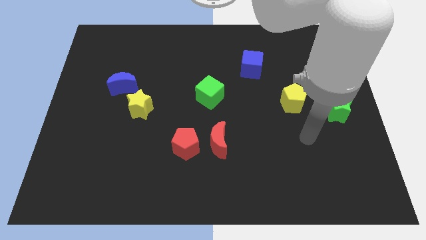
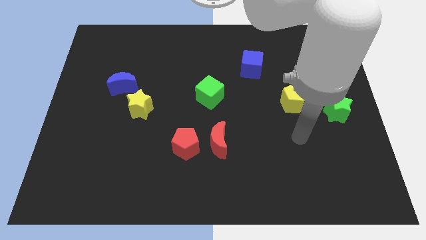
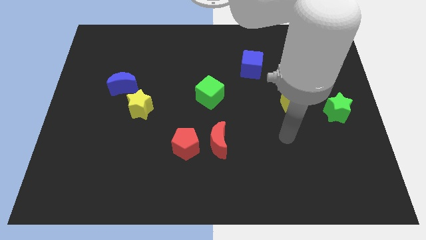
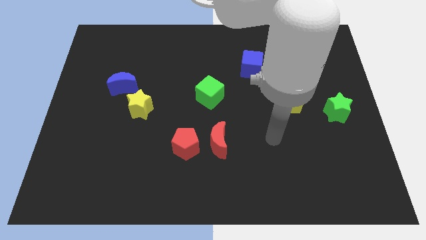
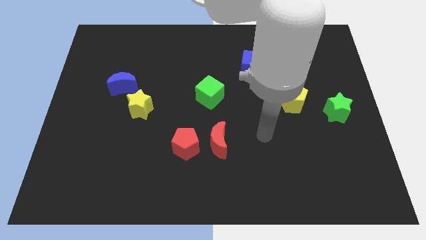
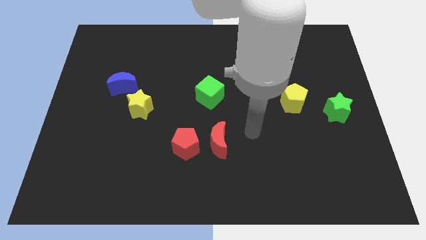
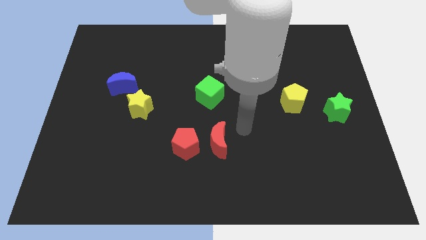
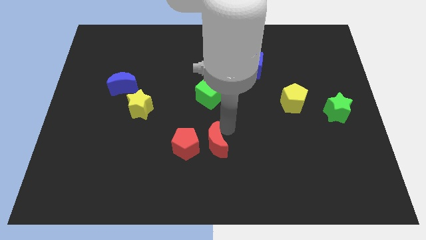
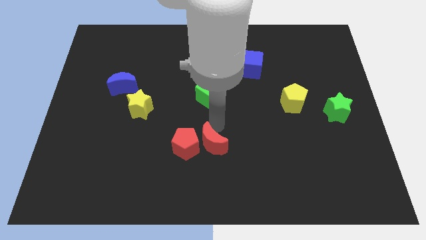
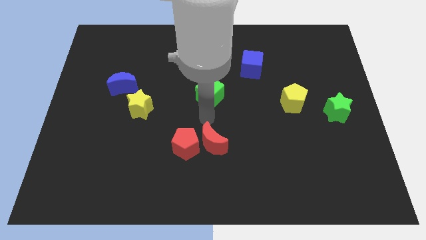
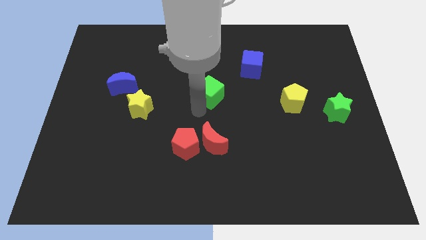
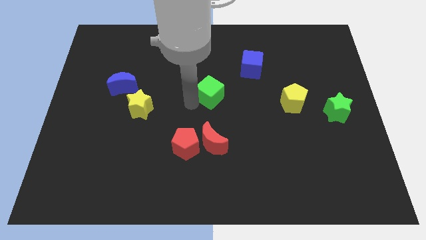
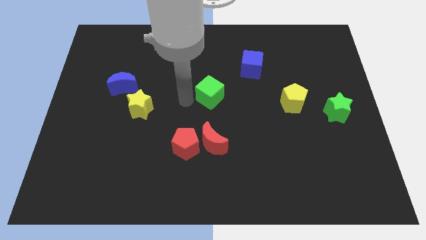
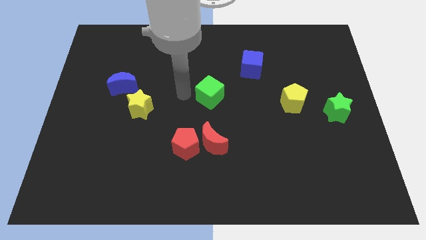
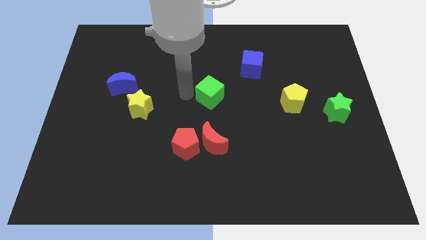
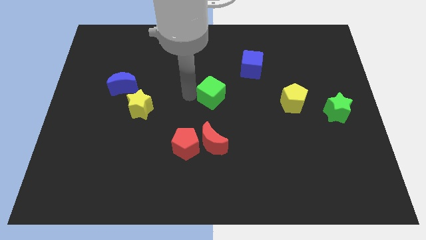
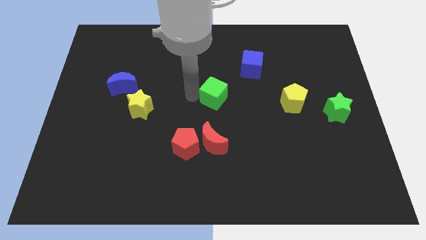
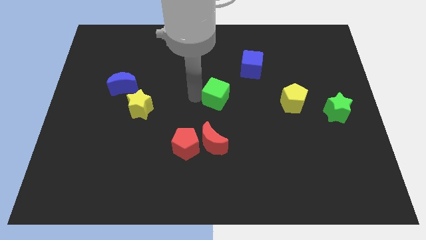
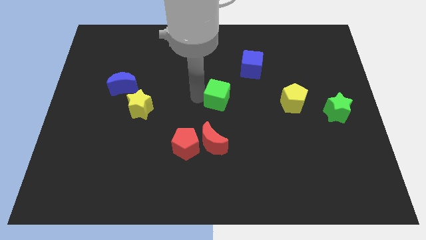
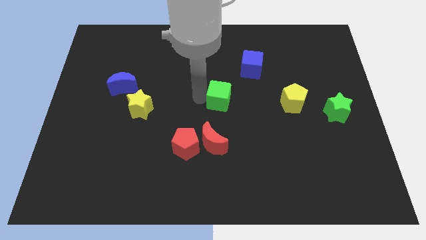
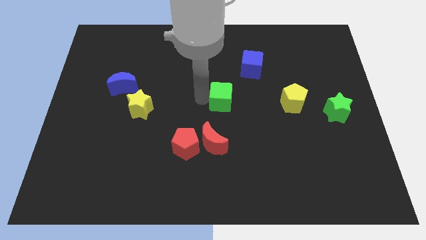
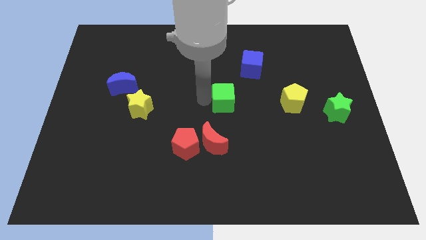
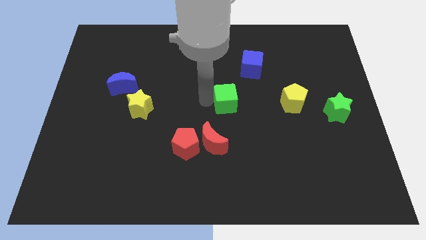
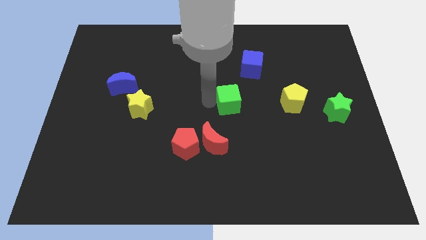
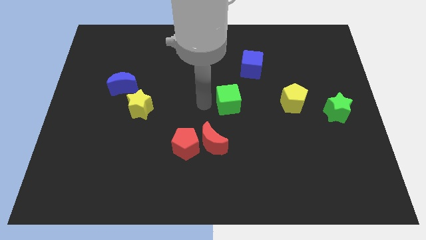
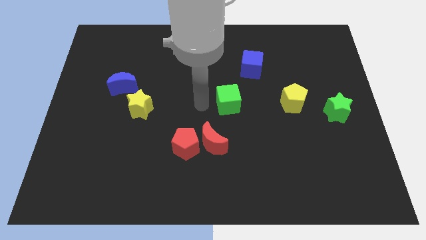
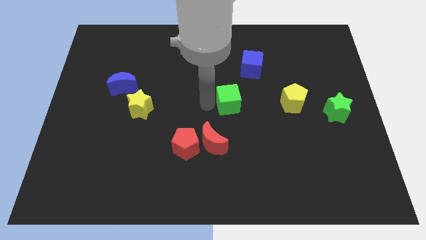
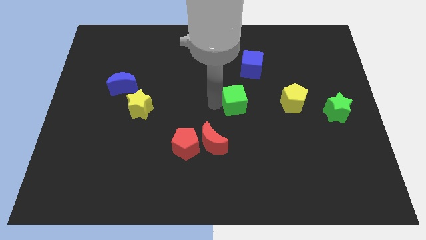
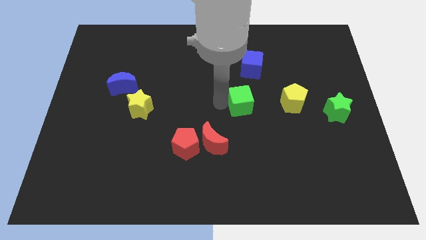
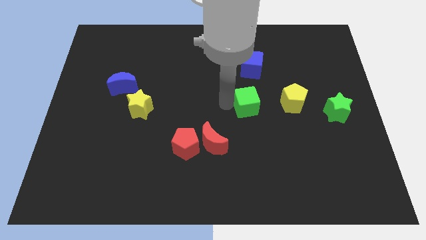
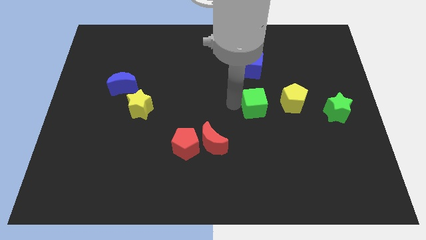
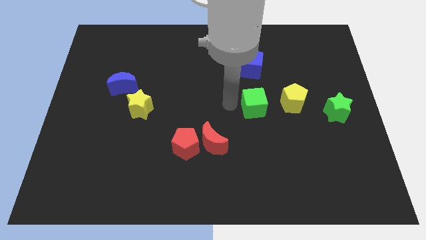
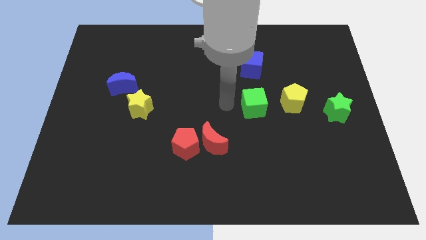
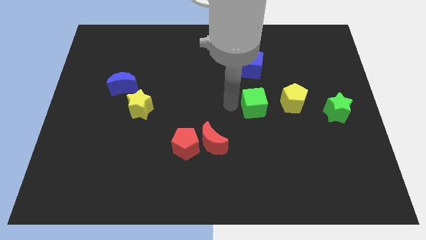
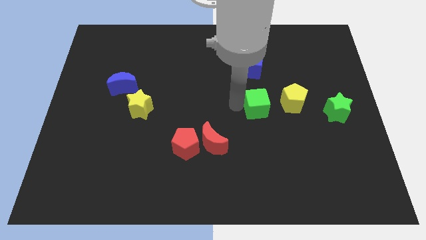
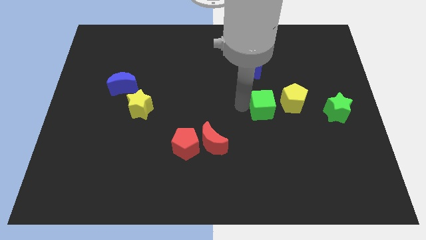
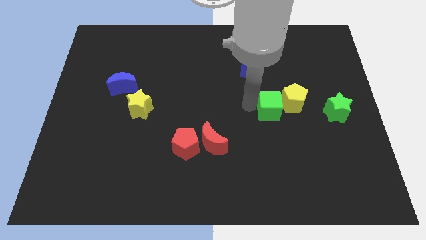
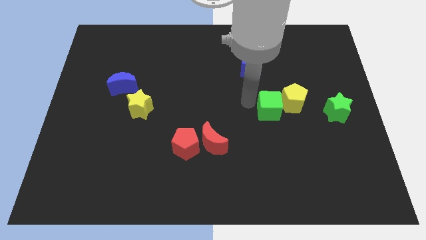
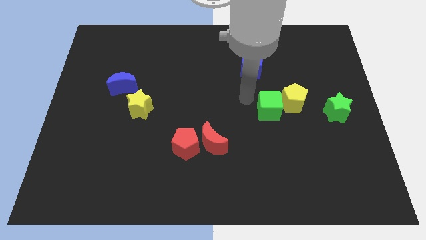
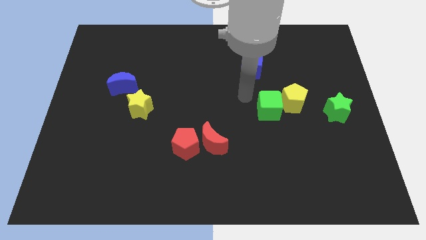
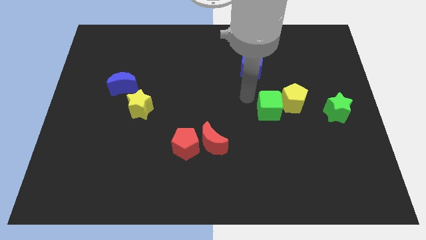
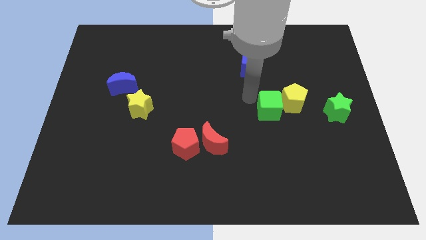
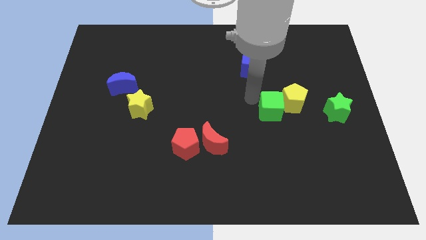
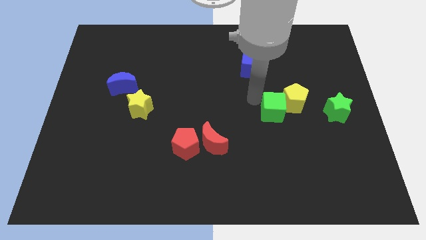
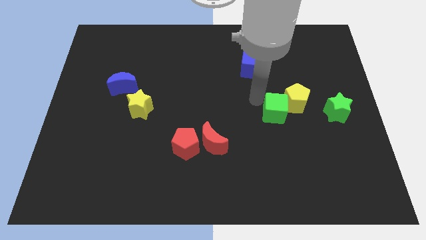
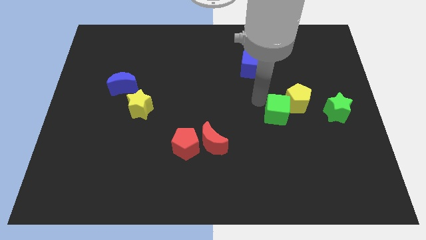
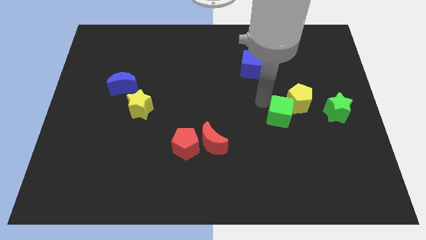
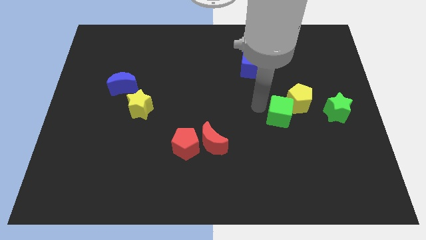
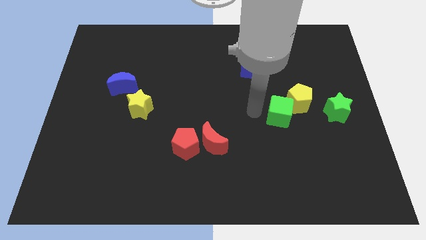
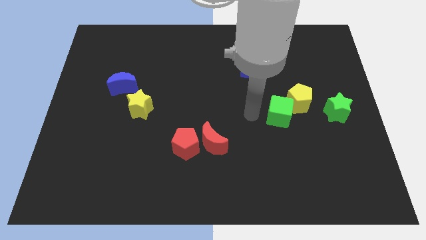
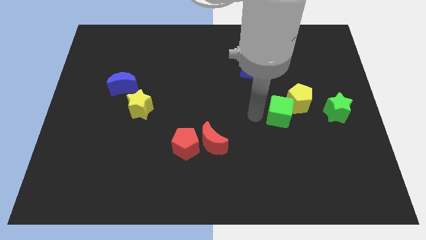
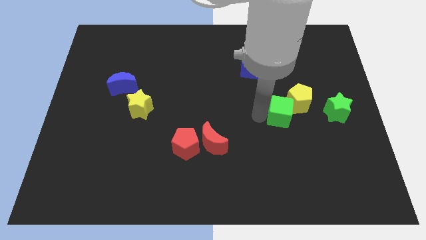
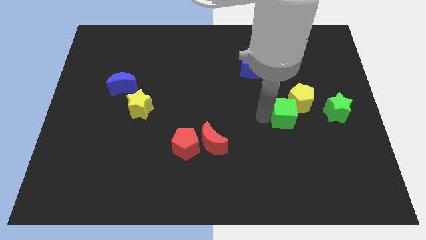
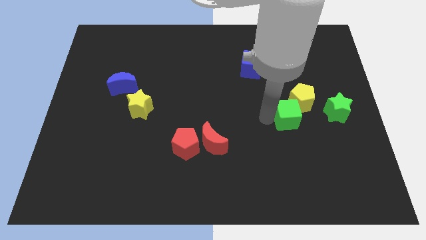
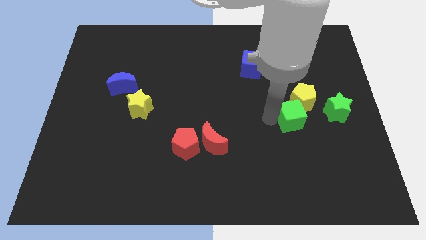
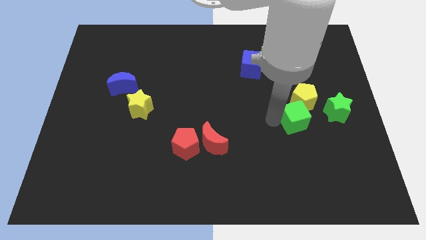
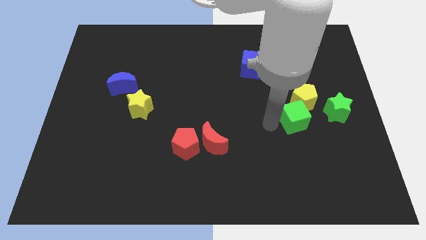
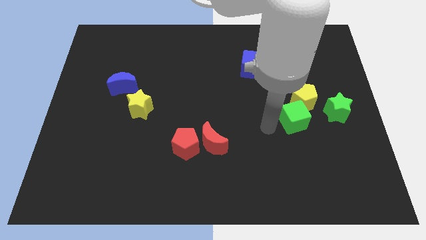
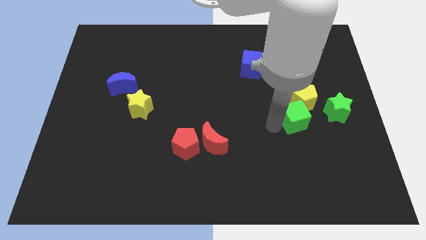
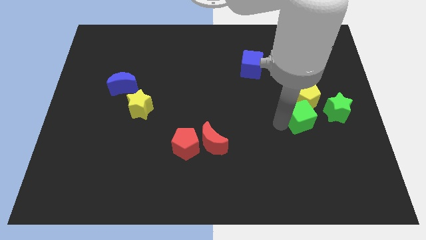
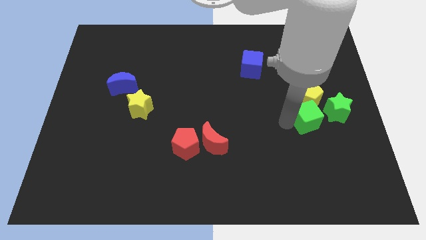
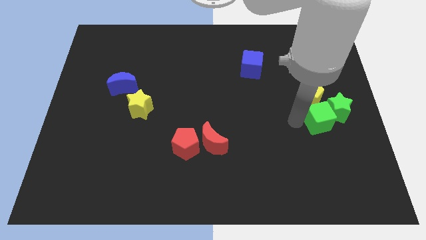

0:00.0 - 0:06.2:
move the green cube to the green star

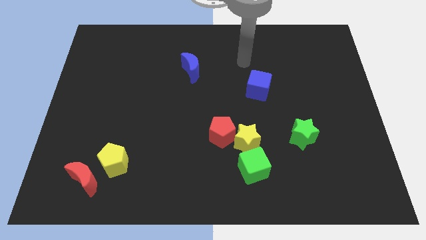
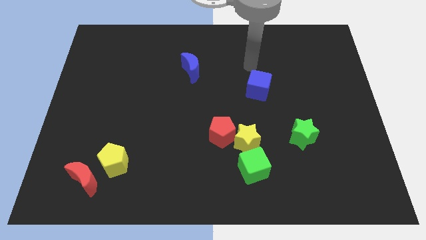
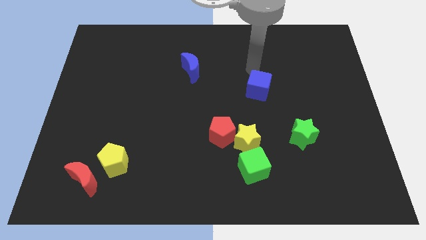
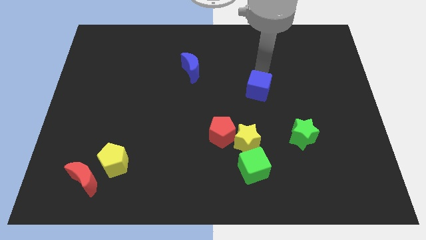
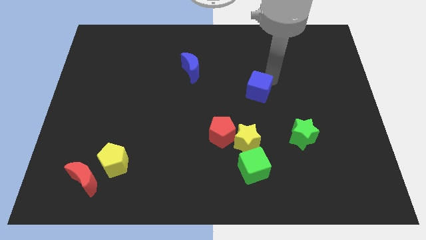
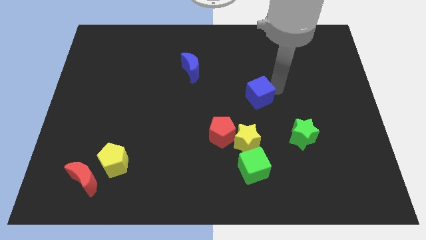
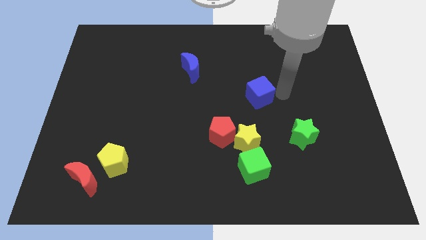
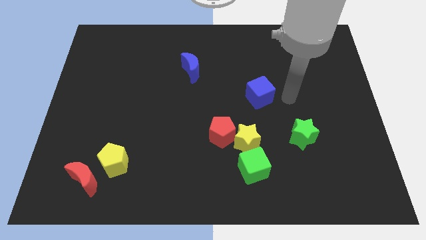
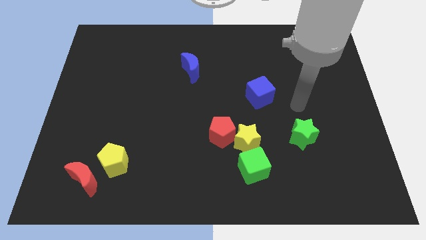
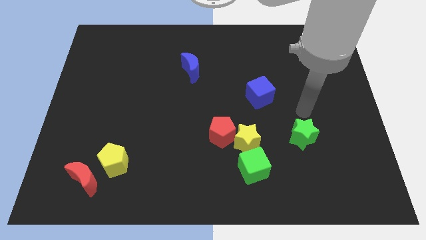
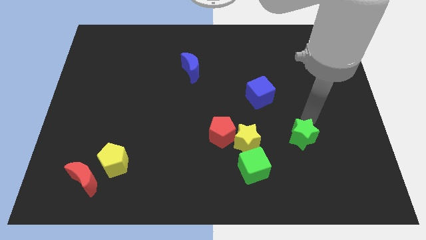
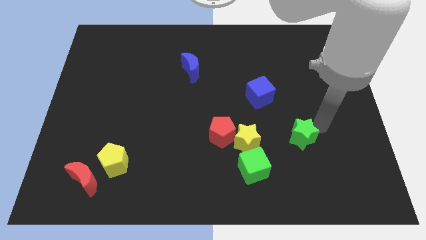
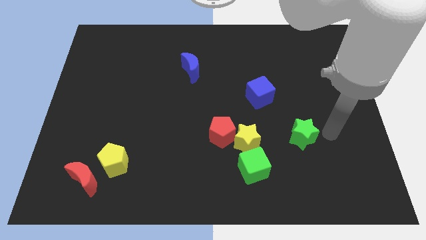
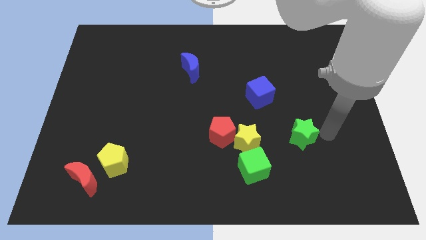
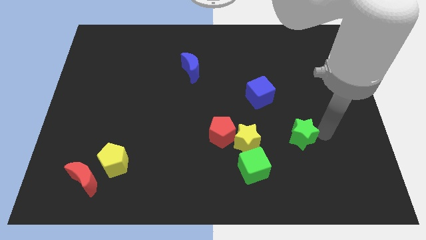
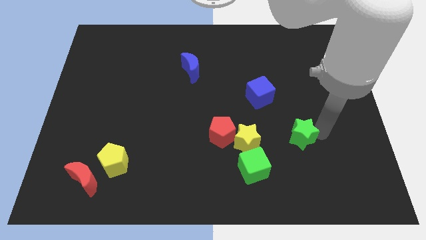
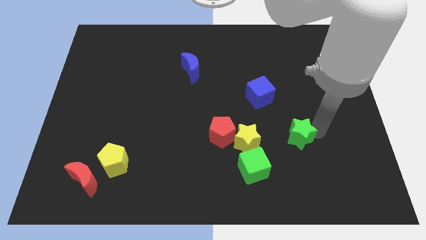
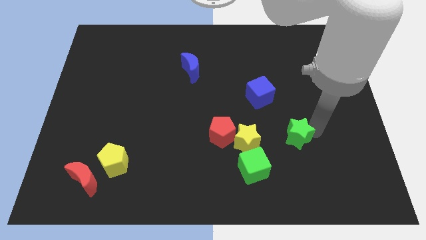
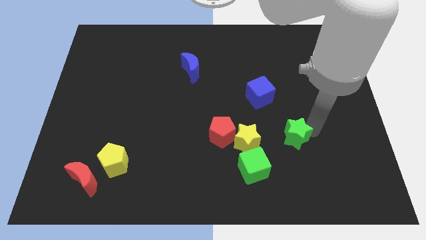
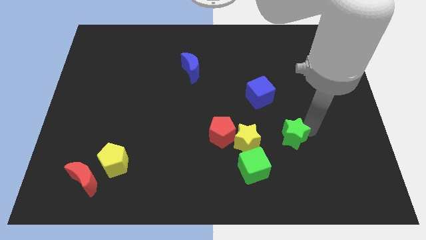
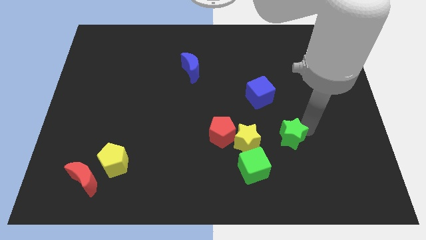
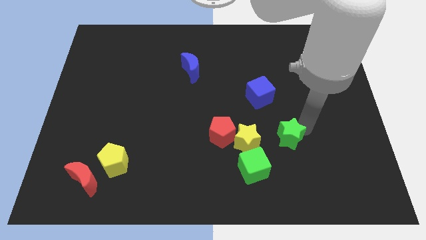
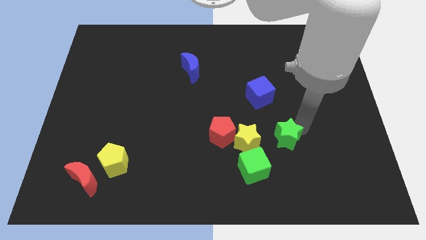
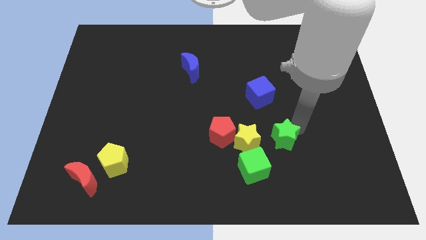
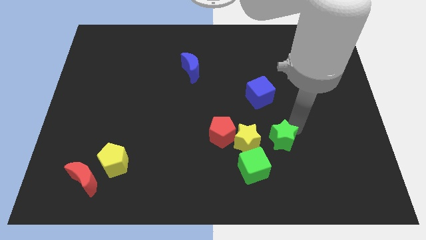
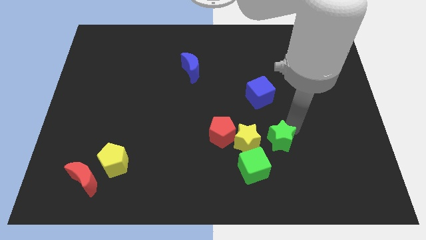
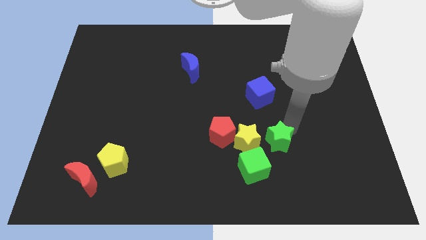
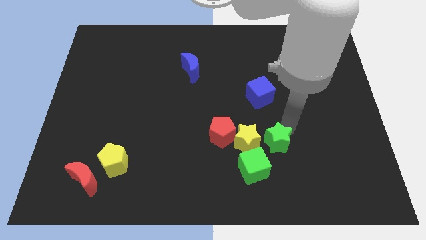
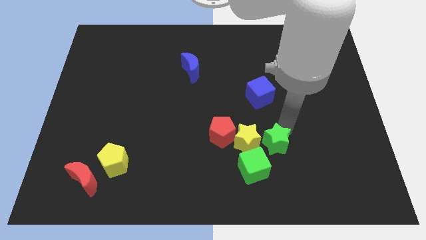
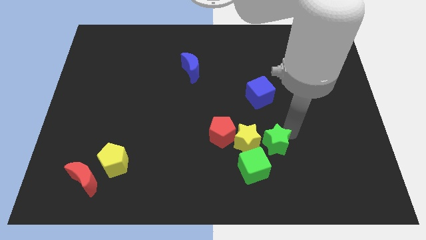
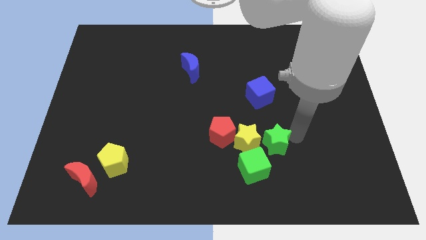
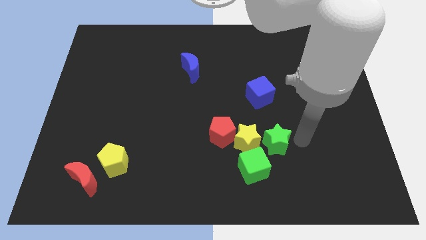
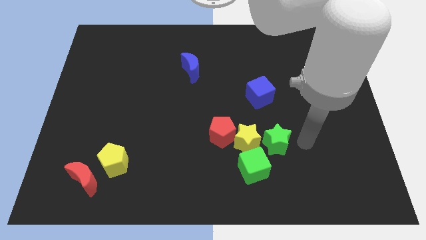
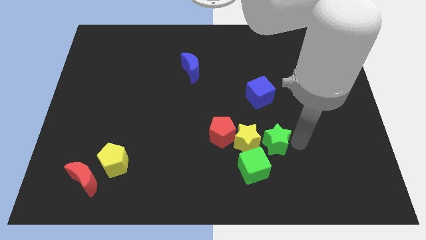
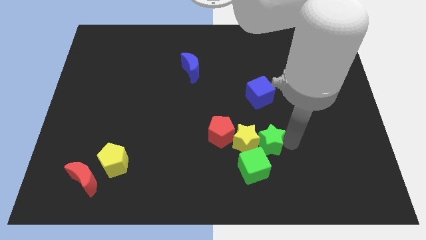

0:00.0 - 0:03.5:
push the green star to the yellow star
